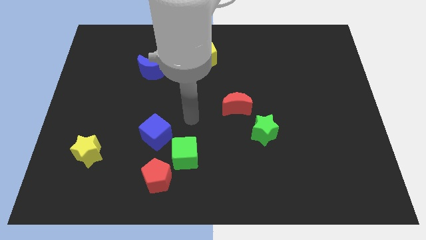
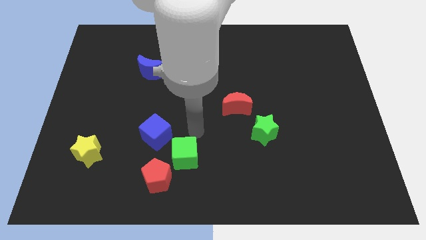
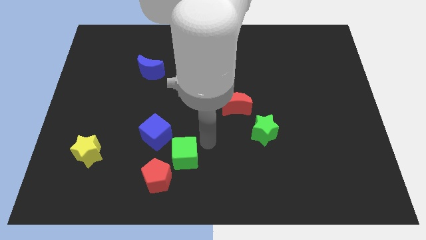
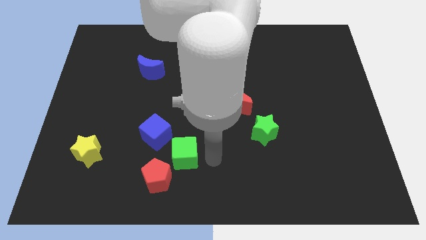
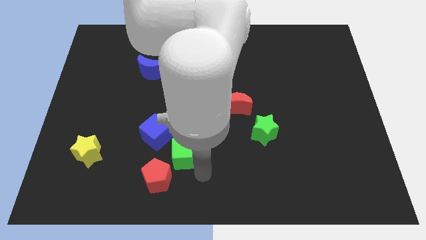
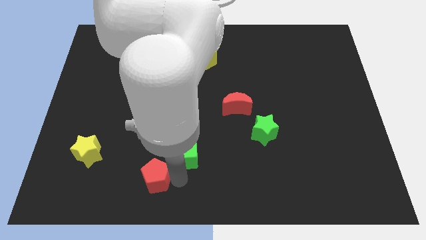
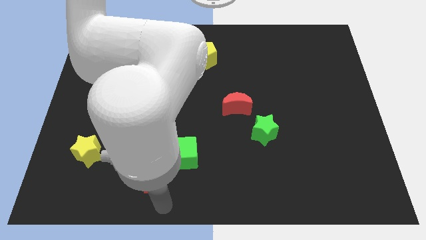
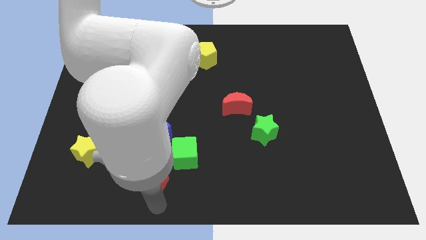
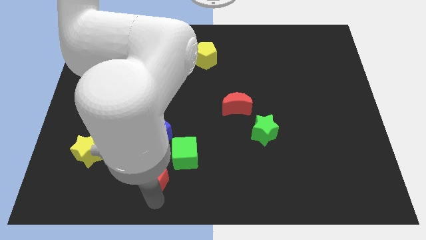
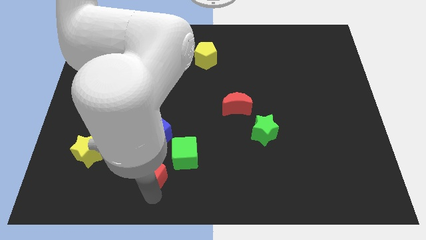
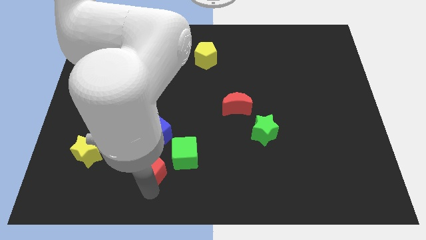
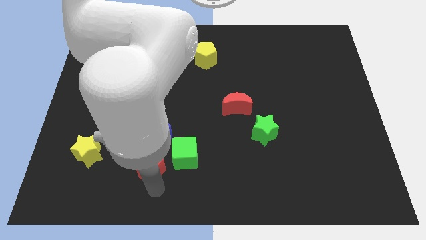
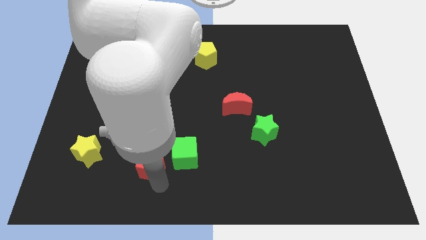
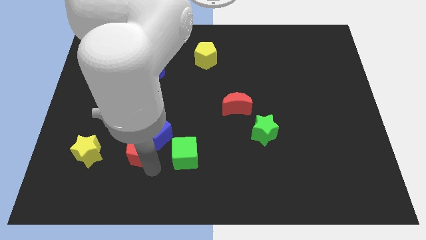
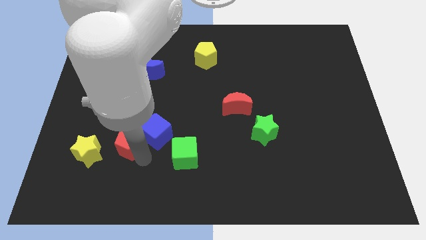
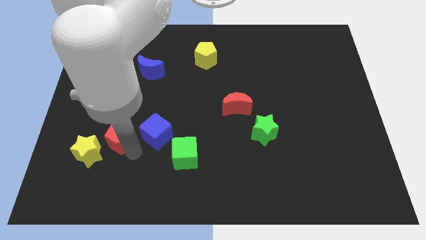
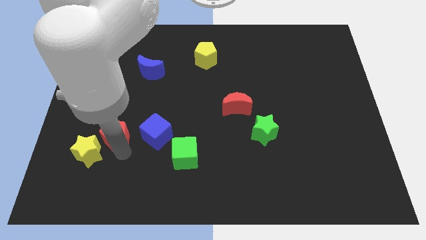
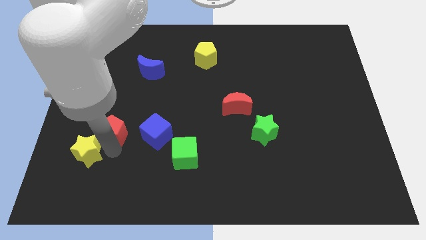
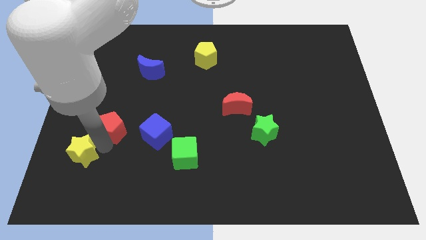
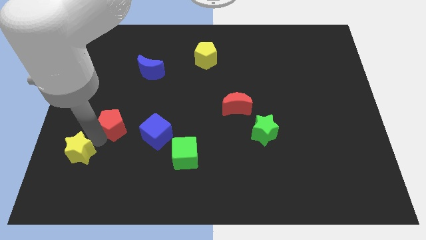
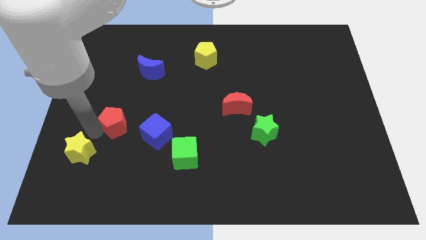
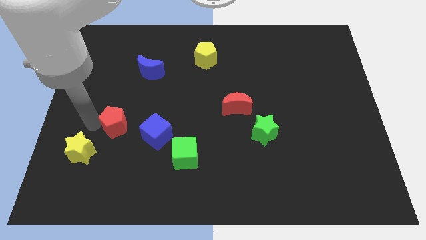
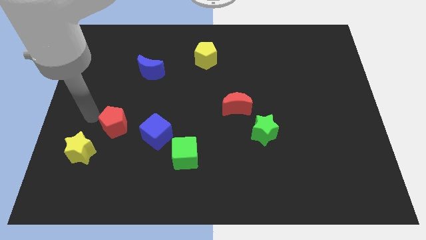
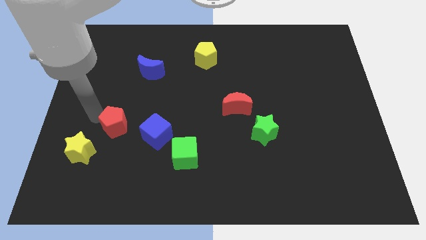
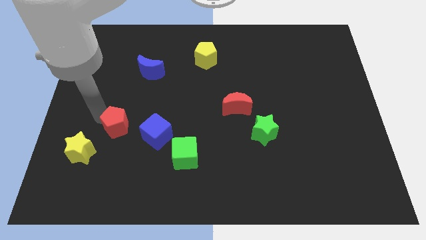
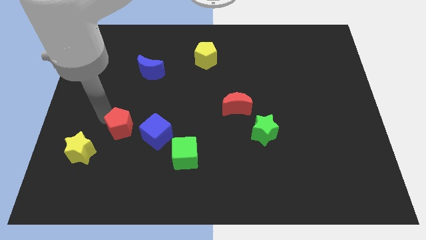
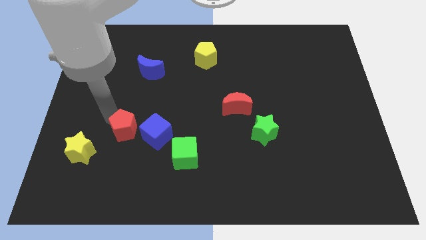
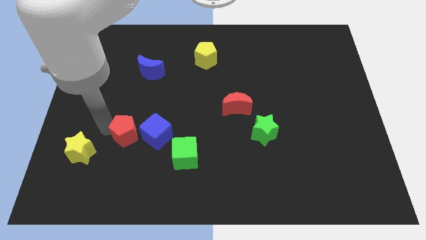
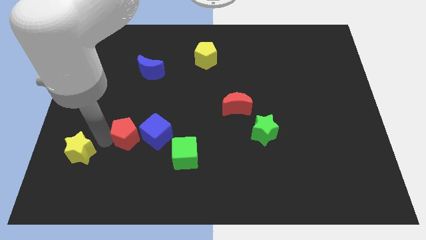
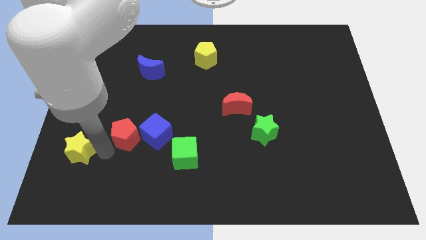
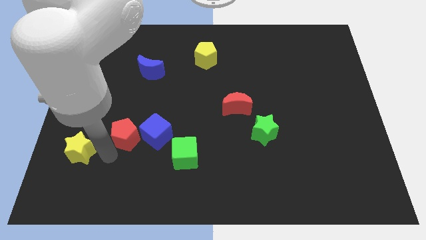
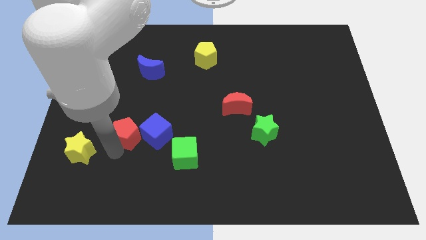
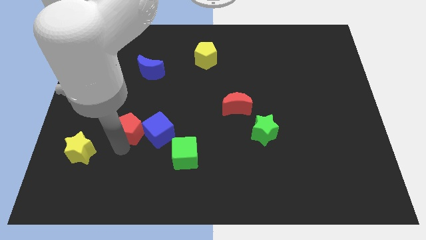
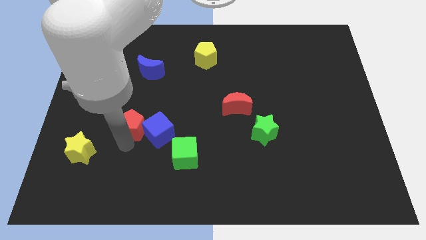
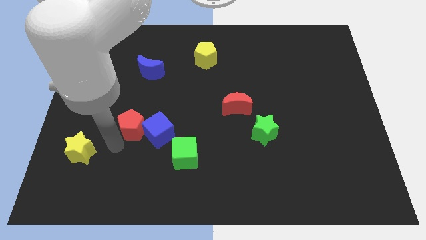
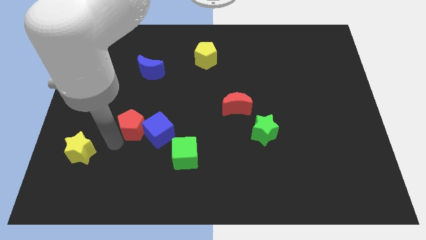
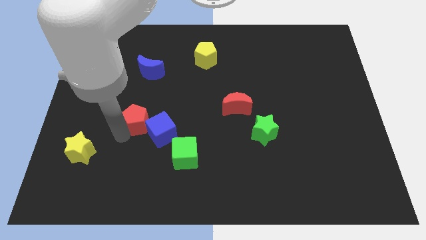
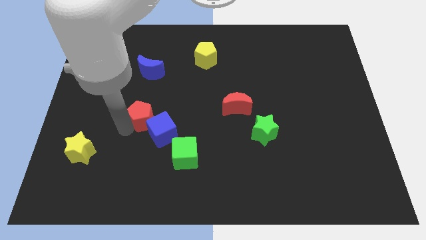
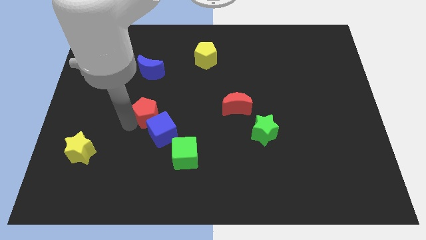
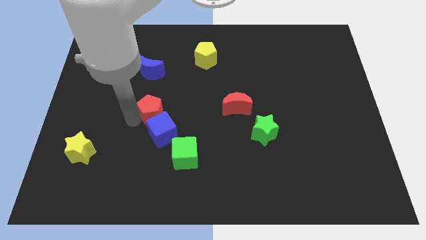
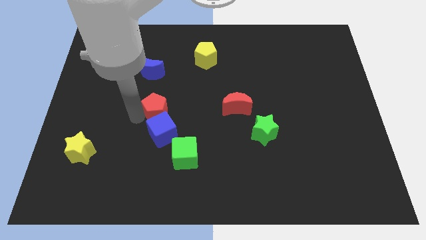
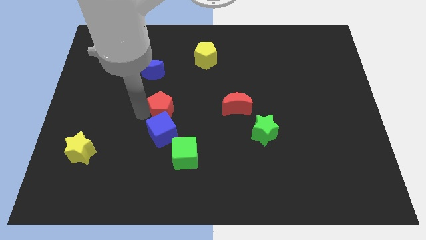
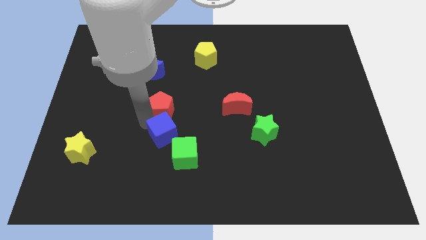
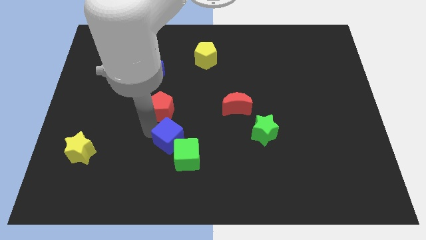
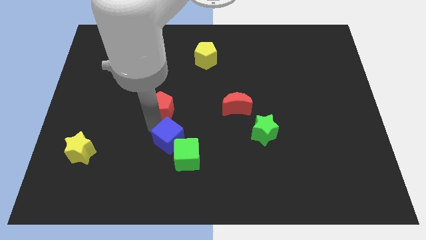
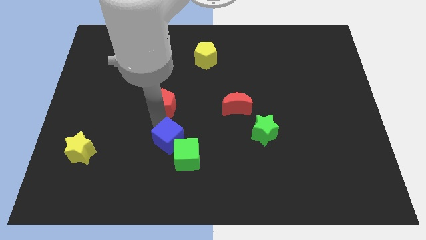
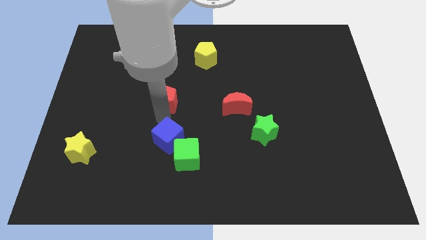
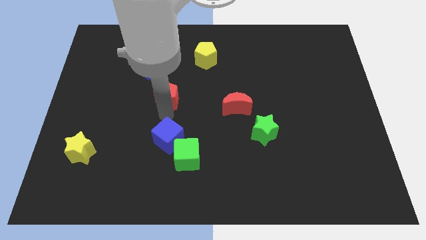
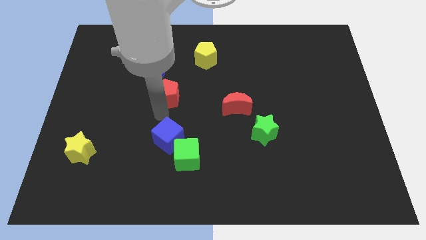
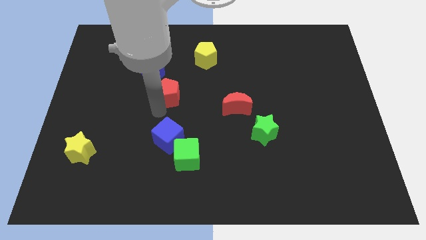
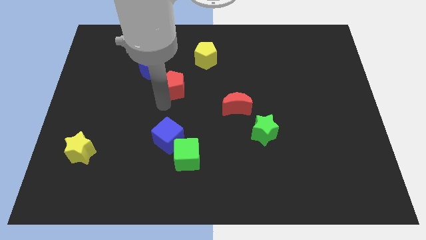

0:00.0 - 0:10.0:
put the red pentagon to the bottom left side of the yellow pentagon

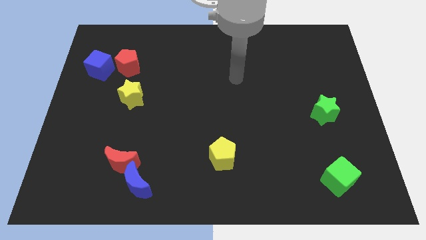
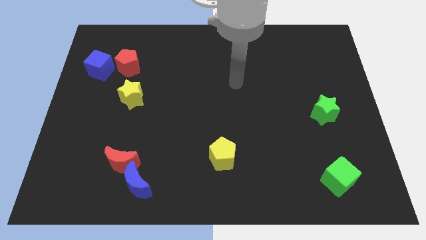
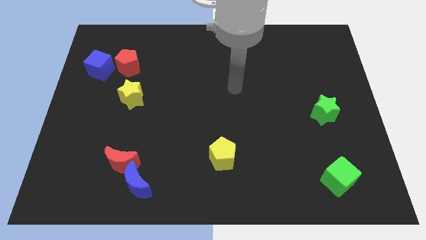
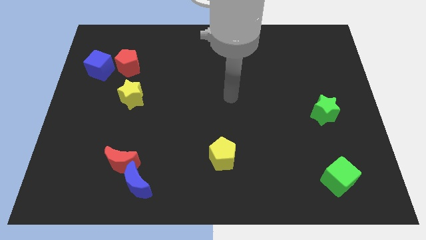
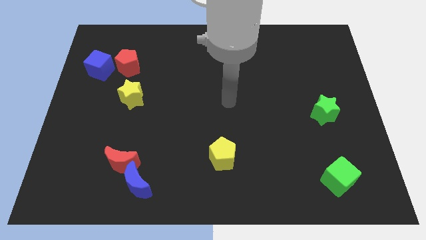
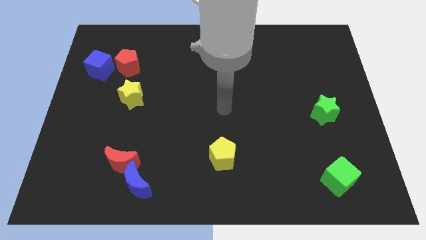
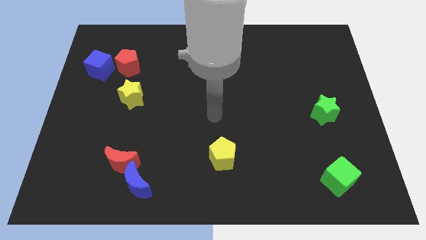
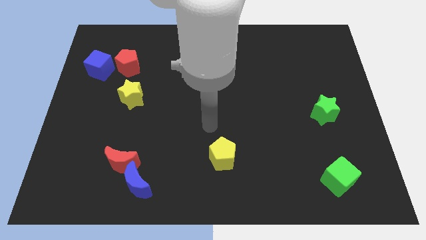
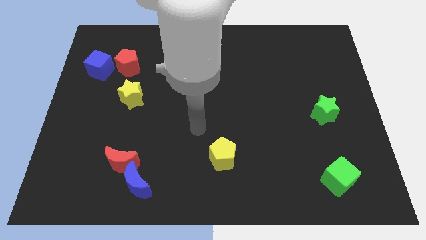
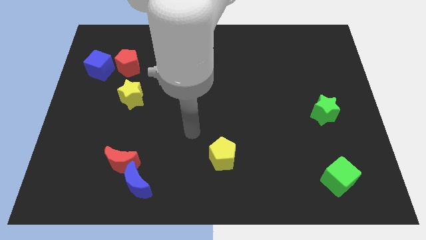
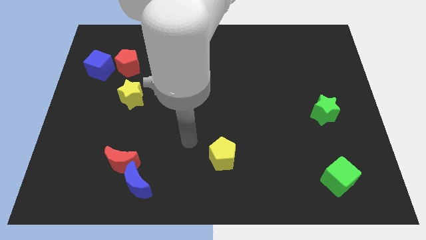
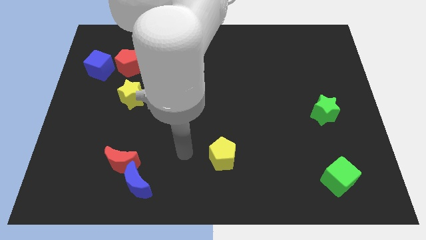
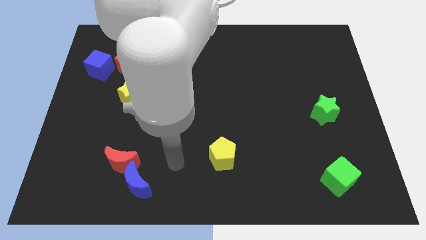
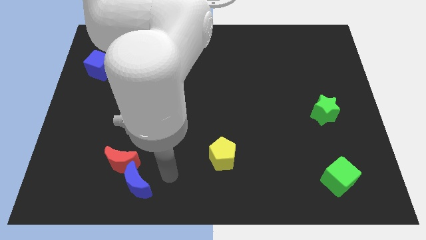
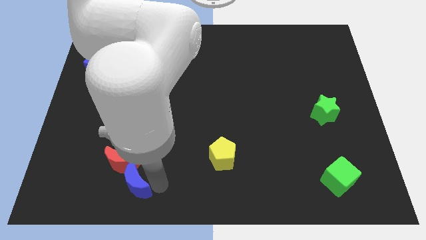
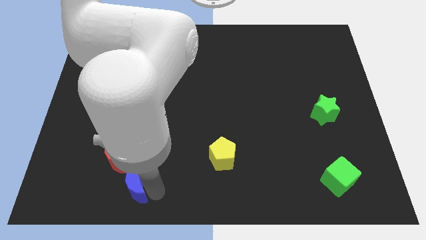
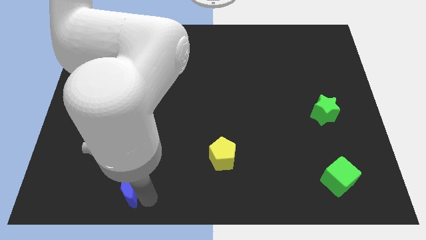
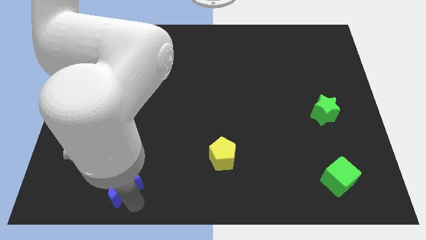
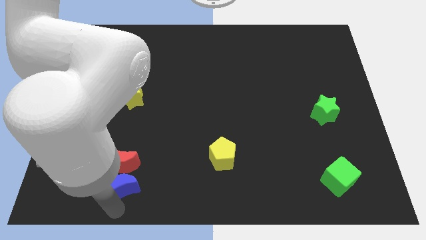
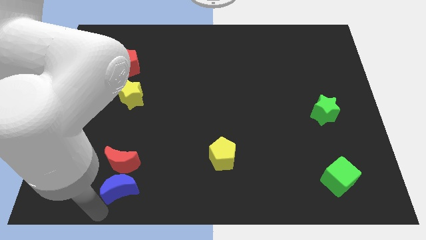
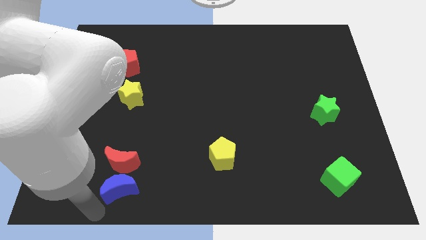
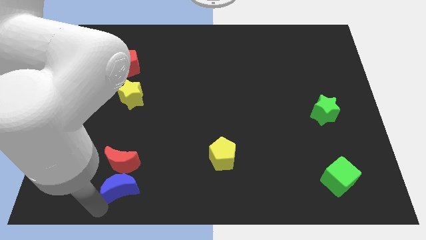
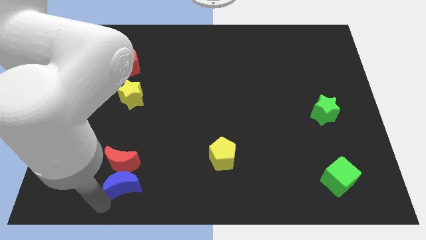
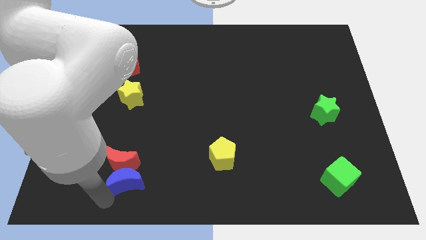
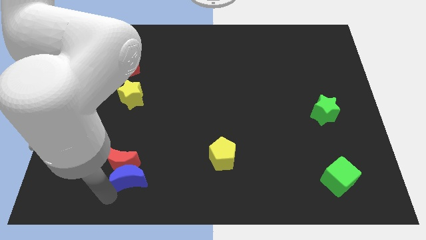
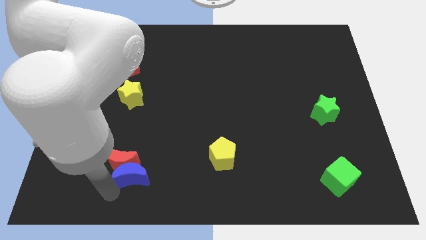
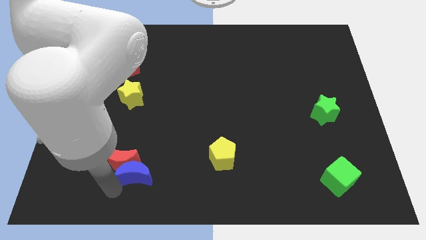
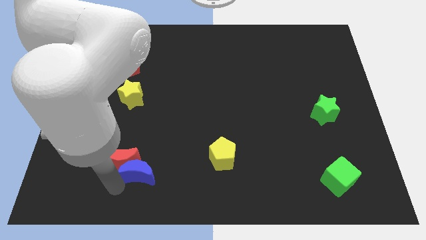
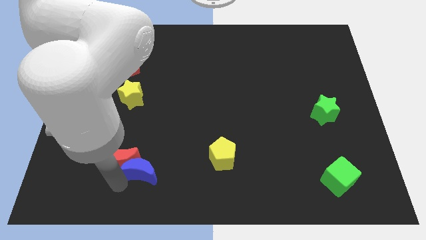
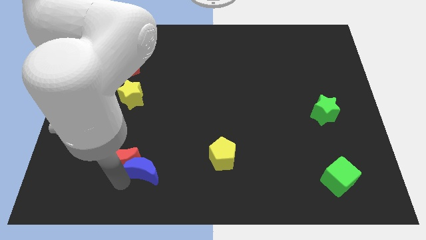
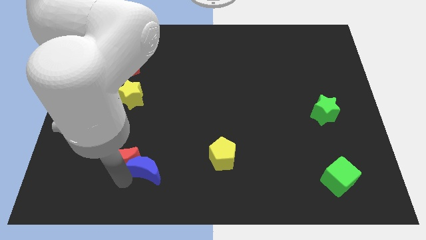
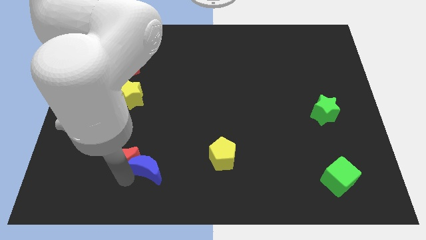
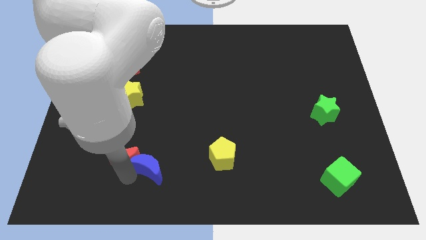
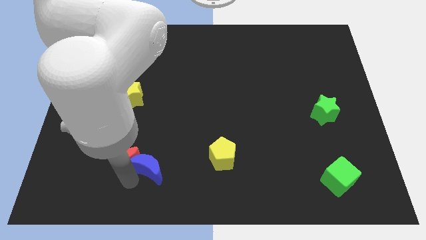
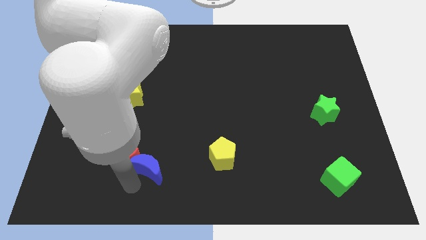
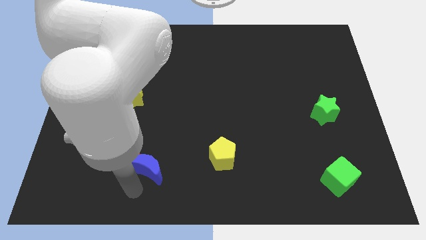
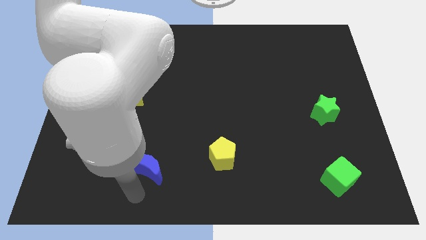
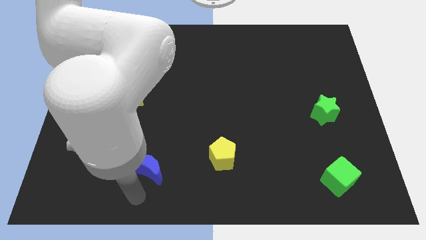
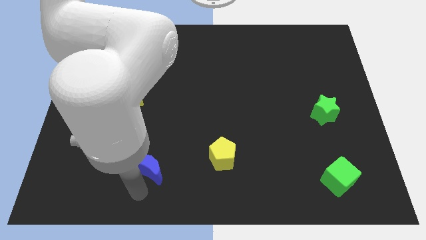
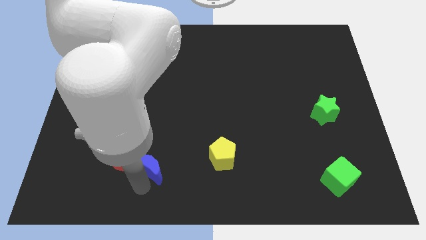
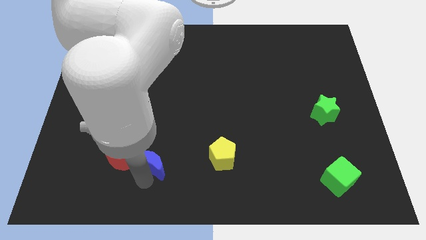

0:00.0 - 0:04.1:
slide the blue moon to the top right of the red moon
